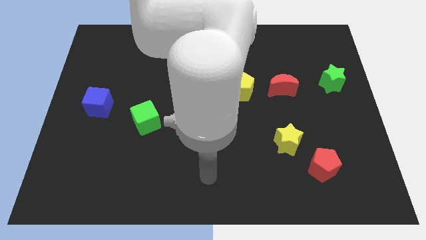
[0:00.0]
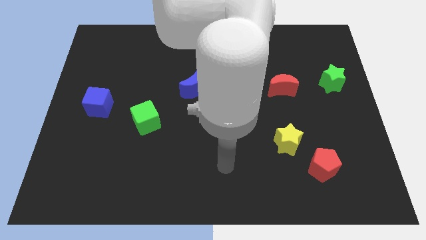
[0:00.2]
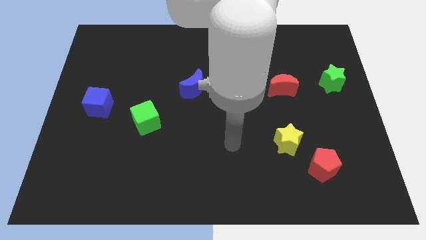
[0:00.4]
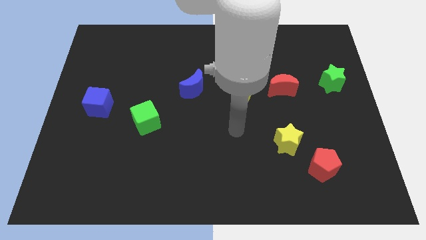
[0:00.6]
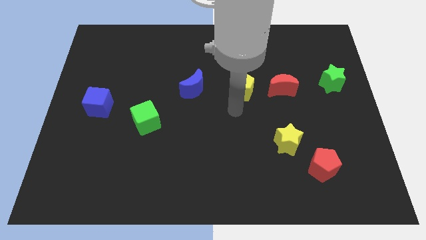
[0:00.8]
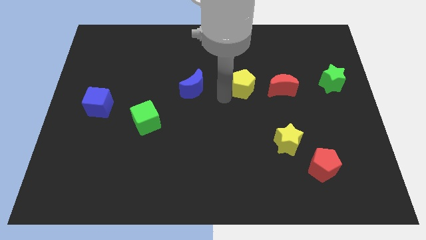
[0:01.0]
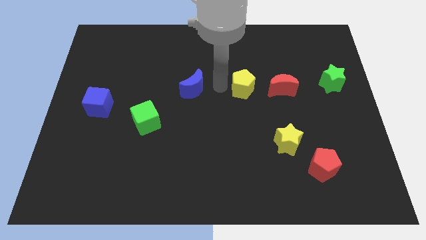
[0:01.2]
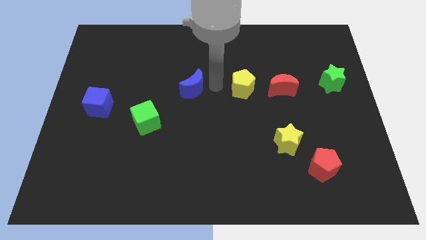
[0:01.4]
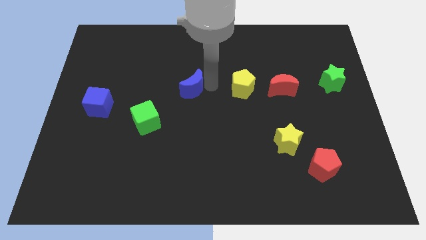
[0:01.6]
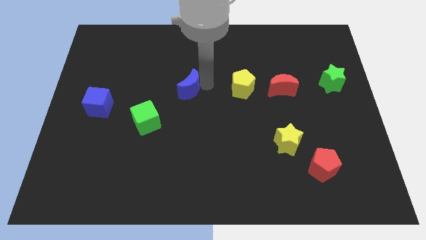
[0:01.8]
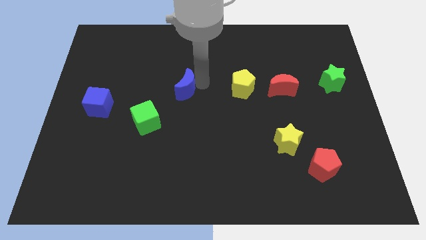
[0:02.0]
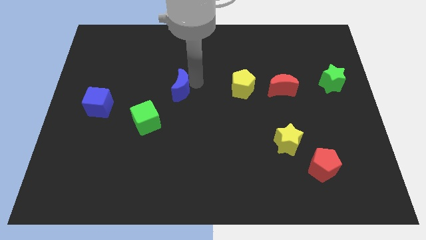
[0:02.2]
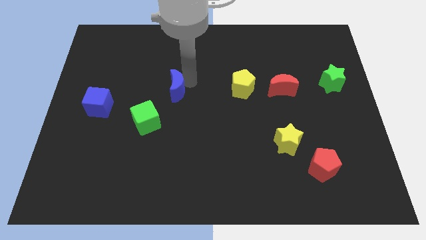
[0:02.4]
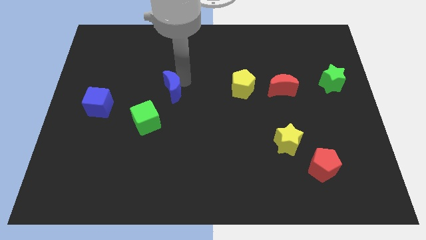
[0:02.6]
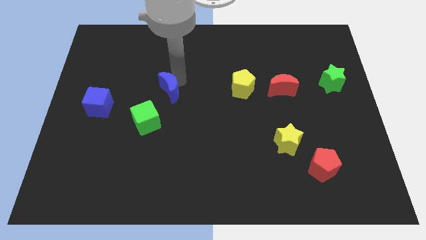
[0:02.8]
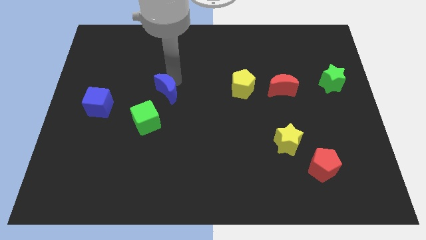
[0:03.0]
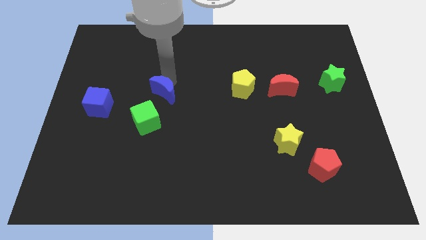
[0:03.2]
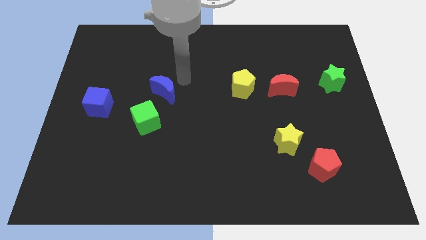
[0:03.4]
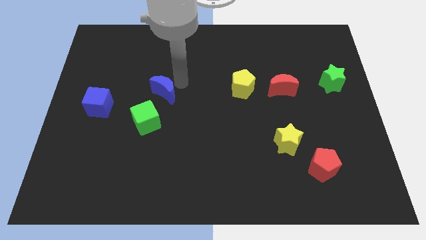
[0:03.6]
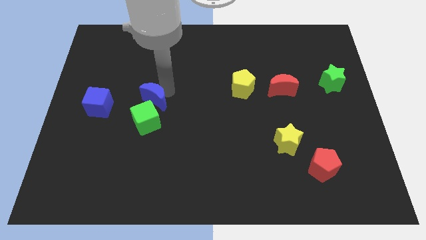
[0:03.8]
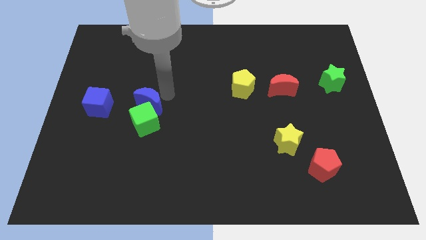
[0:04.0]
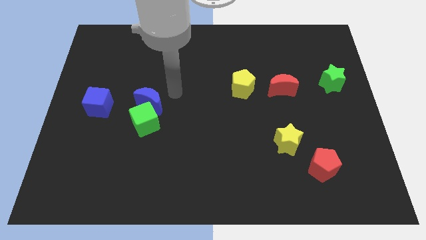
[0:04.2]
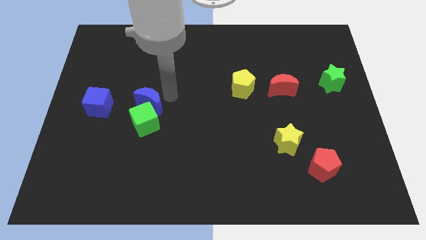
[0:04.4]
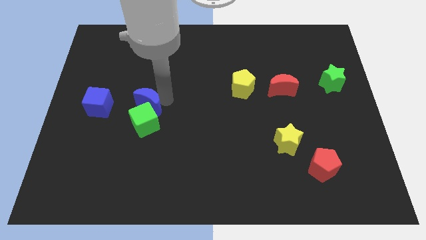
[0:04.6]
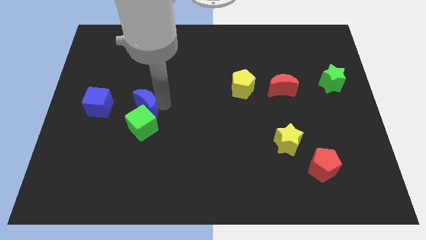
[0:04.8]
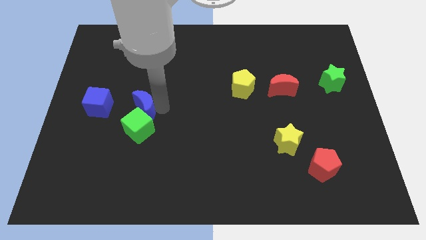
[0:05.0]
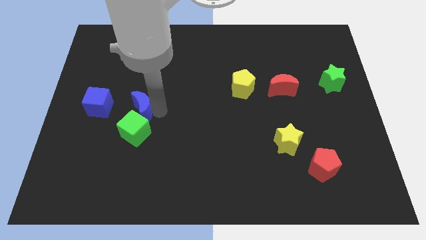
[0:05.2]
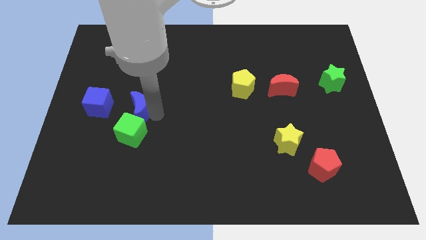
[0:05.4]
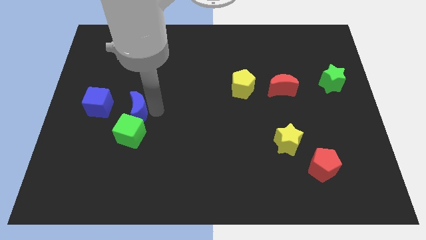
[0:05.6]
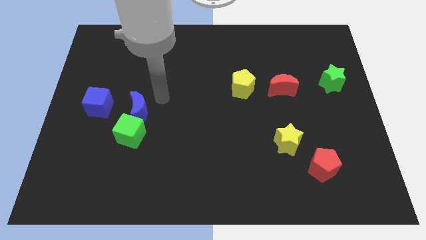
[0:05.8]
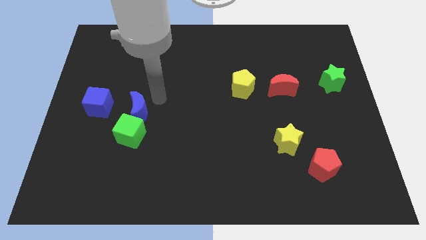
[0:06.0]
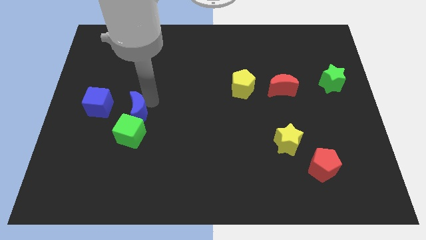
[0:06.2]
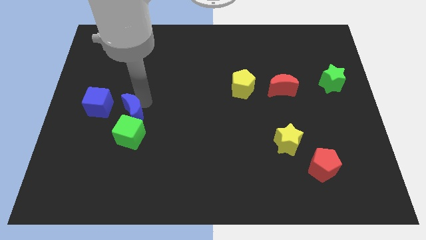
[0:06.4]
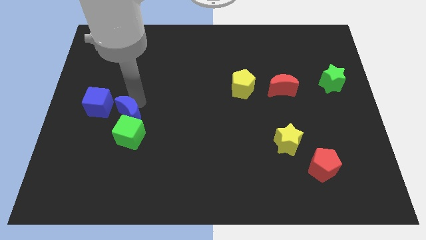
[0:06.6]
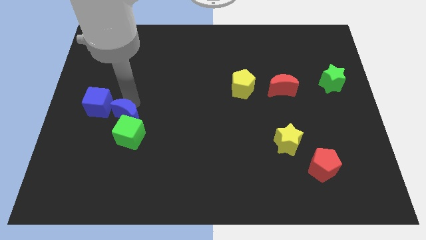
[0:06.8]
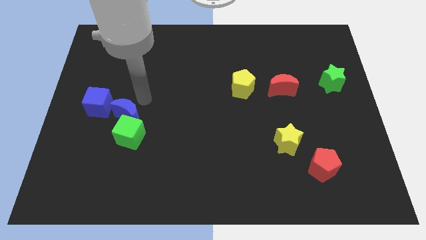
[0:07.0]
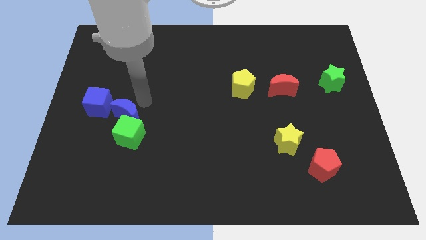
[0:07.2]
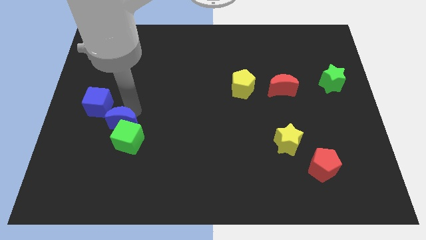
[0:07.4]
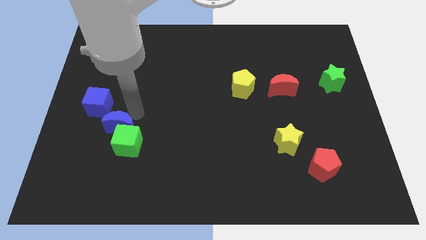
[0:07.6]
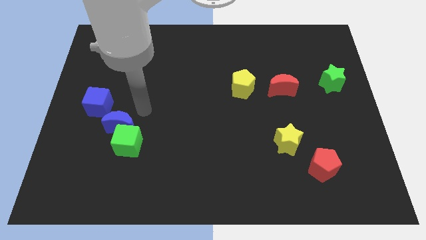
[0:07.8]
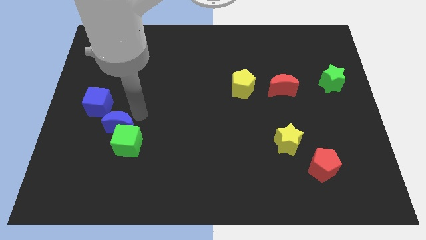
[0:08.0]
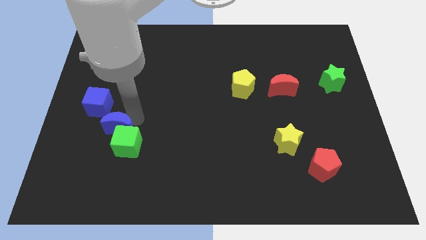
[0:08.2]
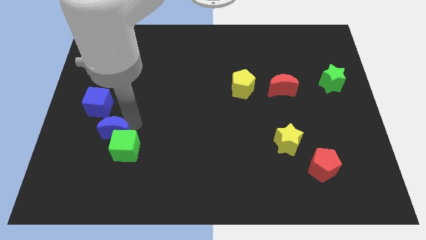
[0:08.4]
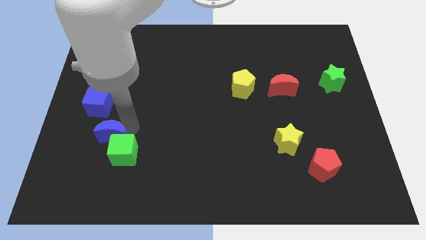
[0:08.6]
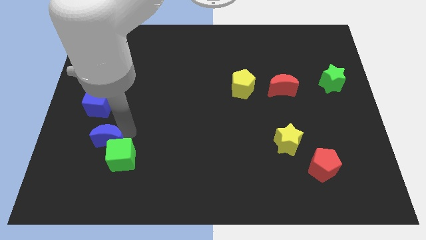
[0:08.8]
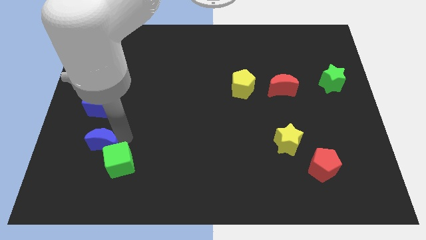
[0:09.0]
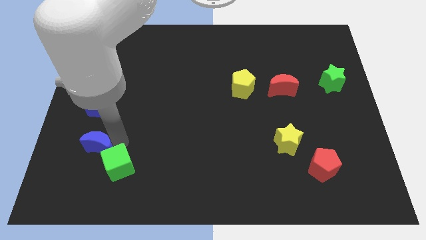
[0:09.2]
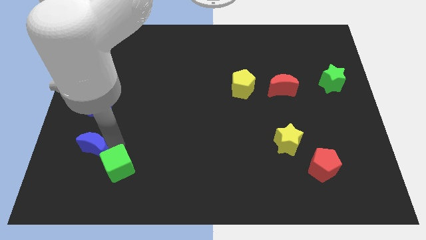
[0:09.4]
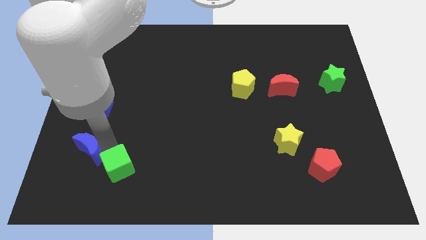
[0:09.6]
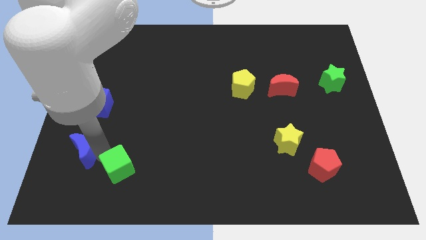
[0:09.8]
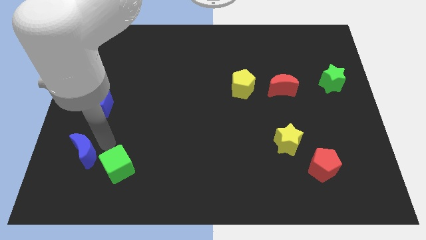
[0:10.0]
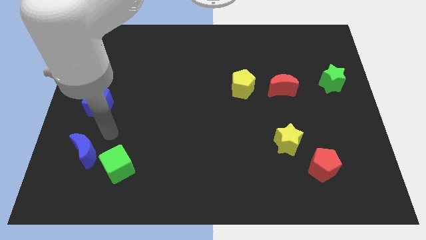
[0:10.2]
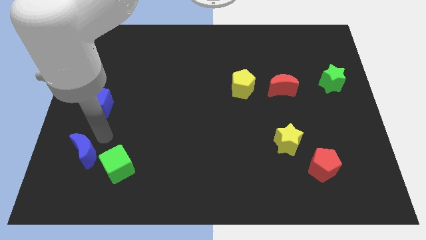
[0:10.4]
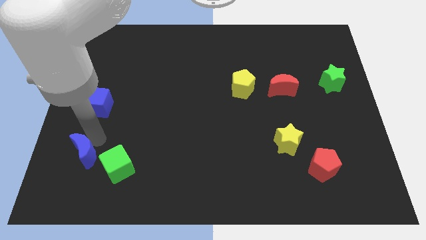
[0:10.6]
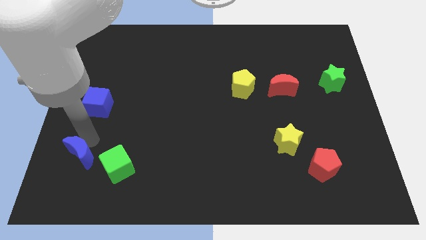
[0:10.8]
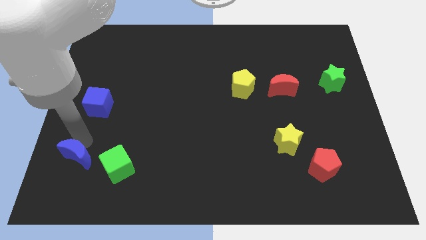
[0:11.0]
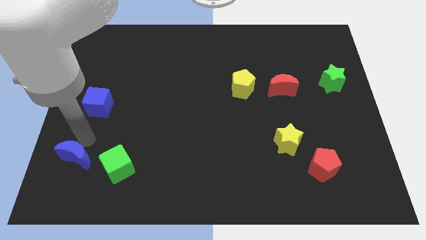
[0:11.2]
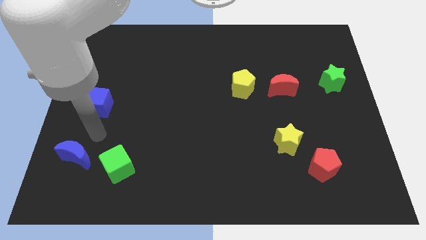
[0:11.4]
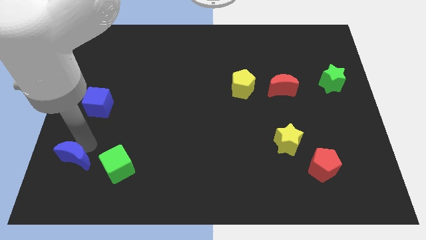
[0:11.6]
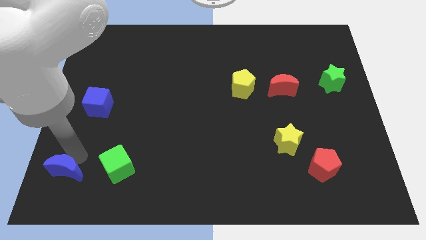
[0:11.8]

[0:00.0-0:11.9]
put the blue moon to the bottom left
